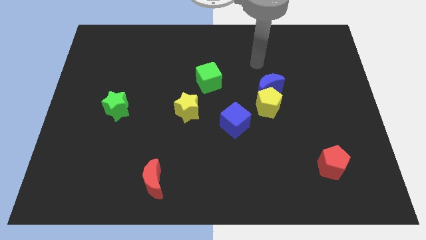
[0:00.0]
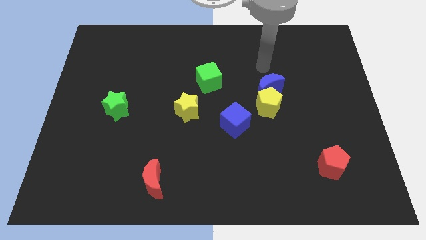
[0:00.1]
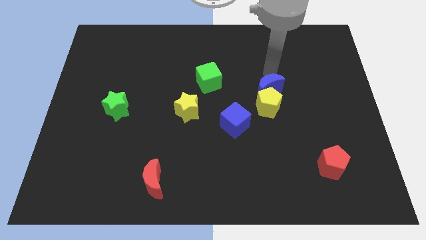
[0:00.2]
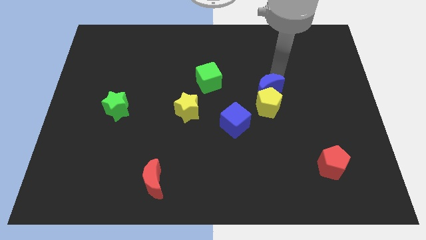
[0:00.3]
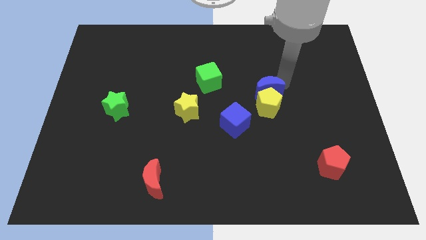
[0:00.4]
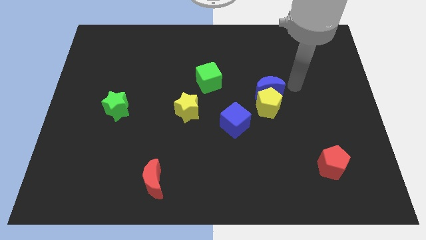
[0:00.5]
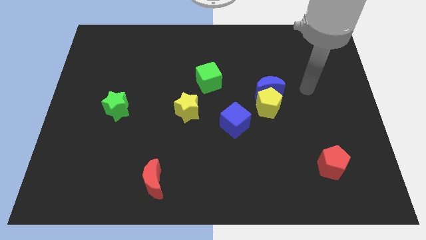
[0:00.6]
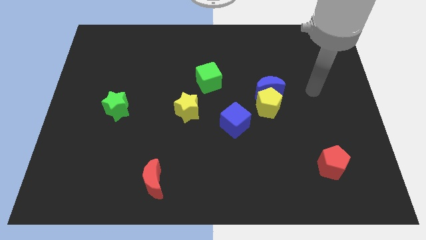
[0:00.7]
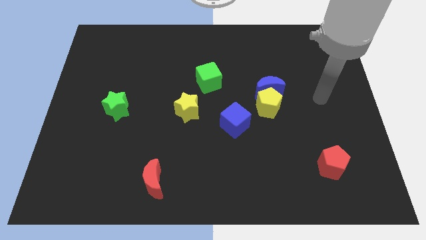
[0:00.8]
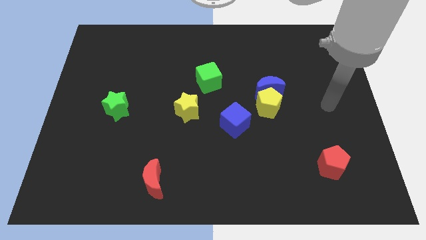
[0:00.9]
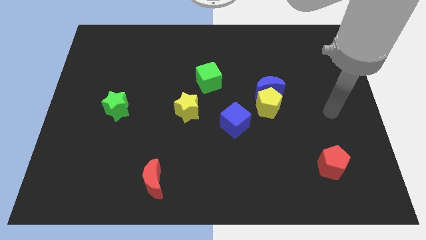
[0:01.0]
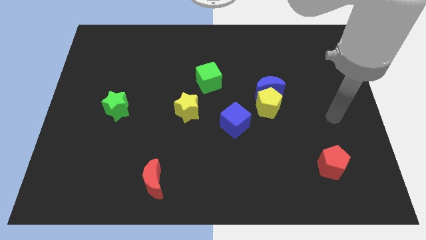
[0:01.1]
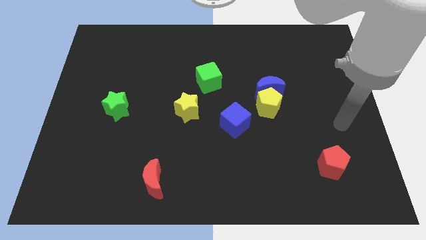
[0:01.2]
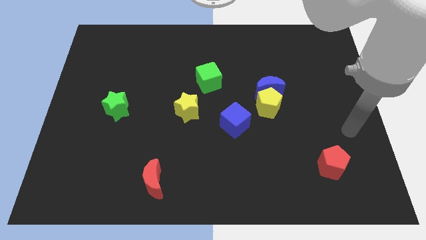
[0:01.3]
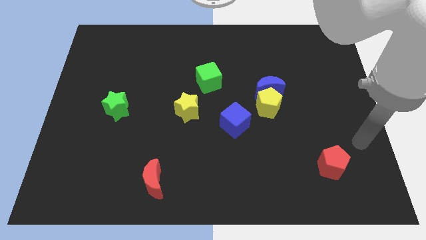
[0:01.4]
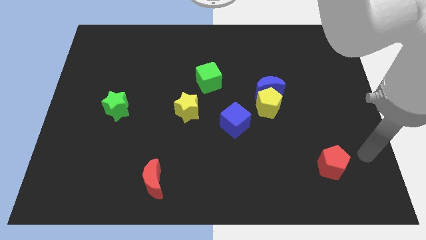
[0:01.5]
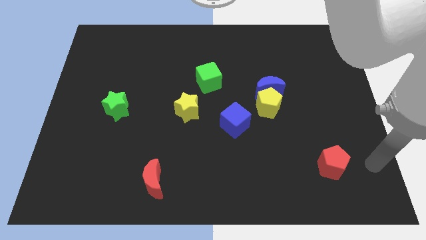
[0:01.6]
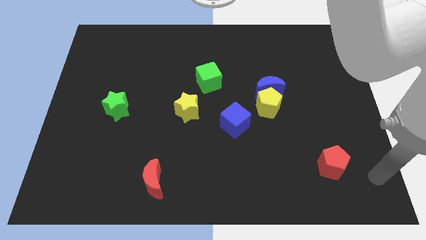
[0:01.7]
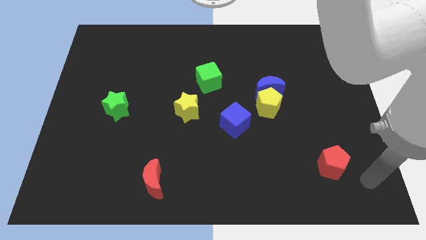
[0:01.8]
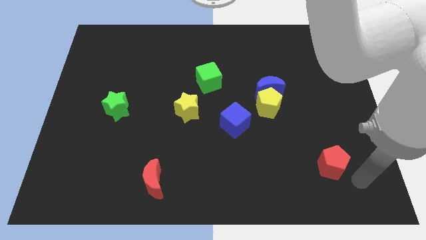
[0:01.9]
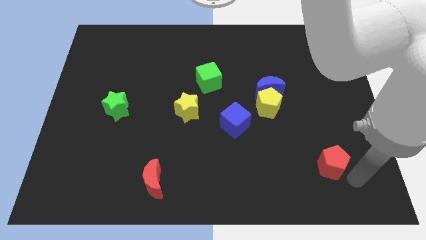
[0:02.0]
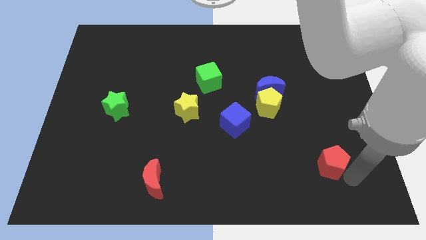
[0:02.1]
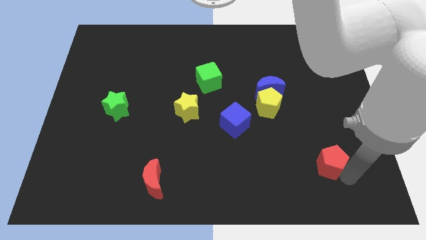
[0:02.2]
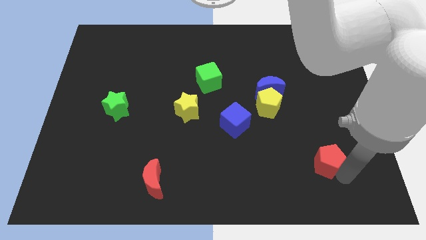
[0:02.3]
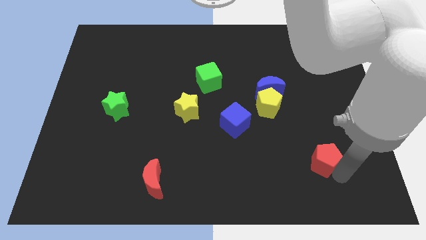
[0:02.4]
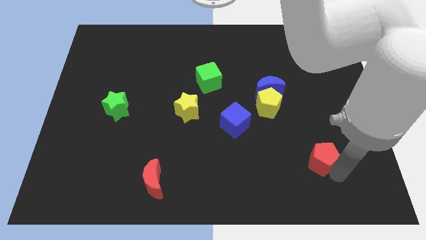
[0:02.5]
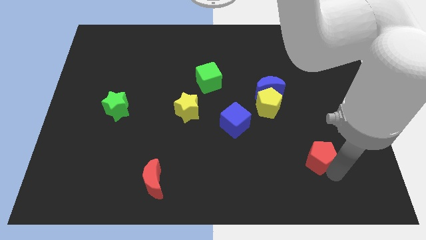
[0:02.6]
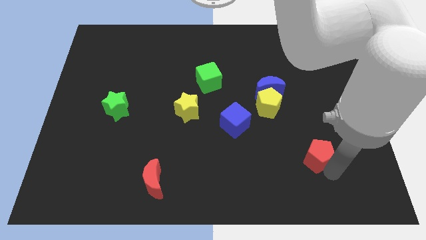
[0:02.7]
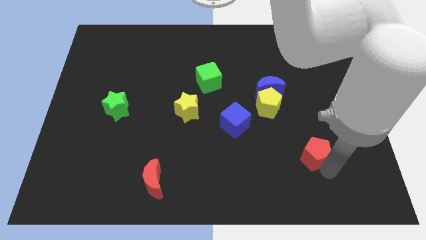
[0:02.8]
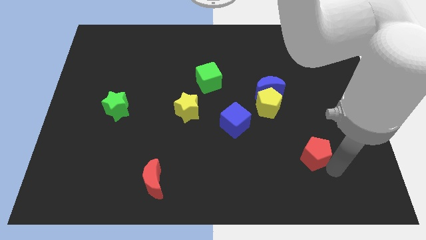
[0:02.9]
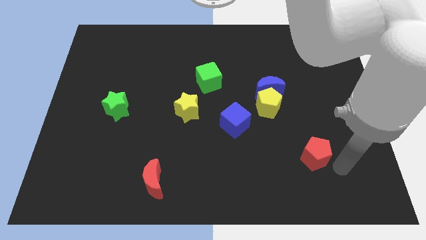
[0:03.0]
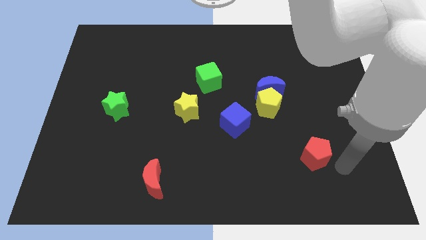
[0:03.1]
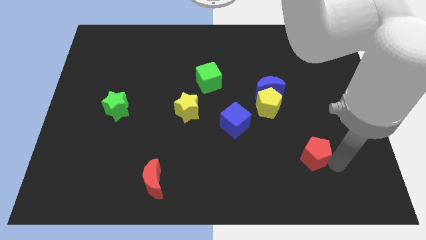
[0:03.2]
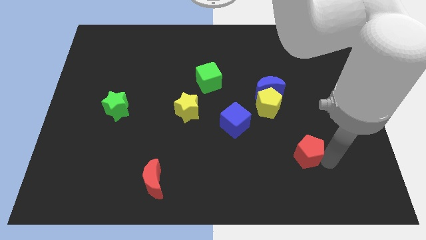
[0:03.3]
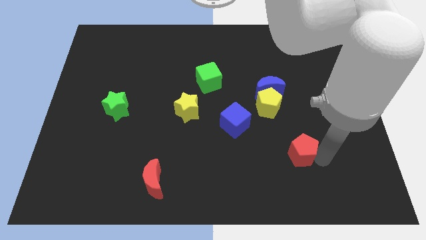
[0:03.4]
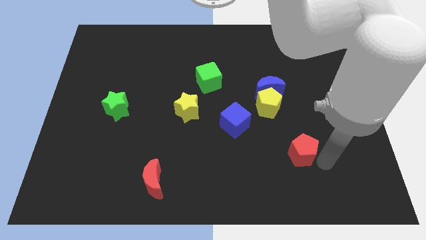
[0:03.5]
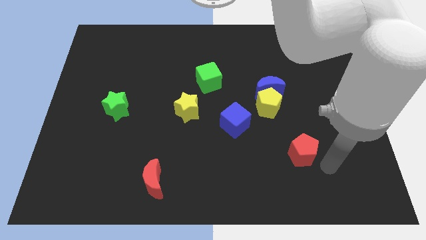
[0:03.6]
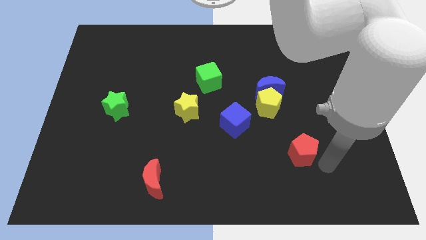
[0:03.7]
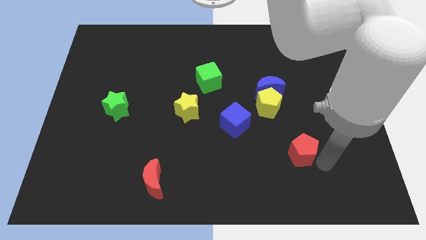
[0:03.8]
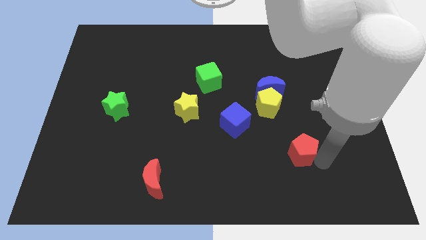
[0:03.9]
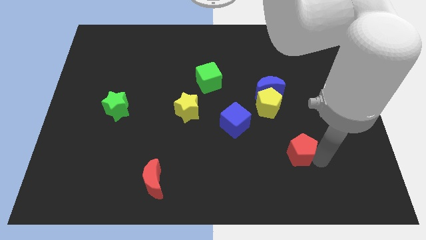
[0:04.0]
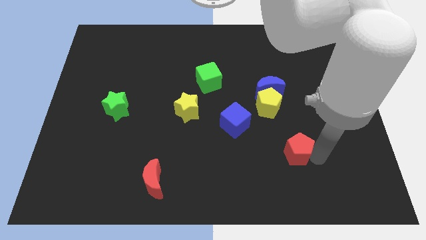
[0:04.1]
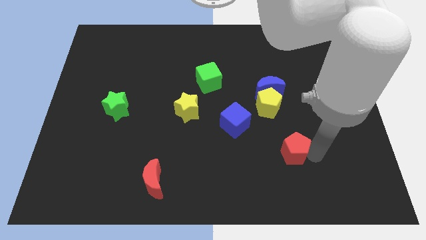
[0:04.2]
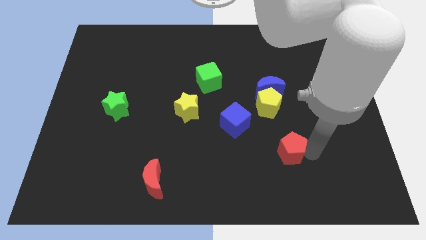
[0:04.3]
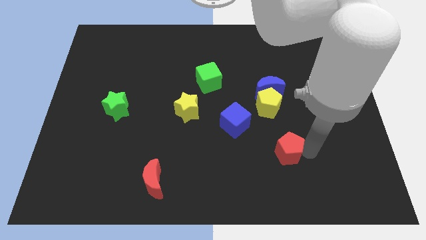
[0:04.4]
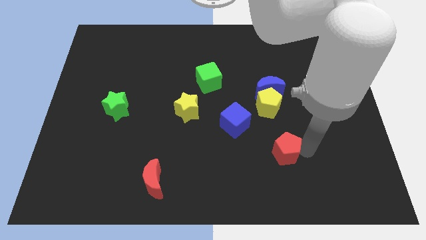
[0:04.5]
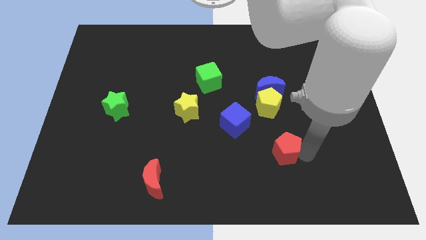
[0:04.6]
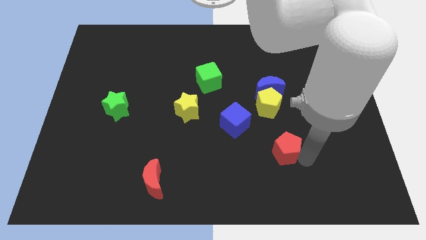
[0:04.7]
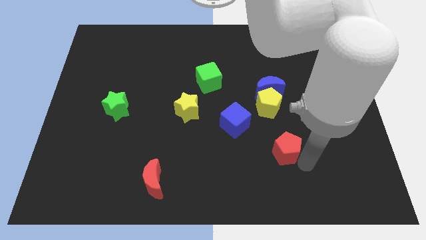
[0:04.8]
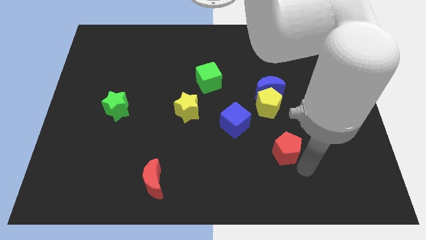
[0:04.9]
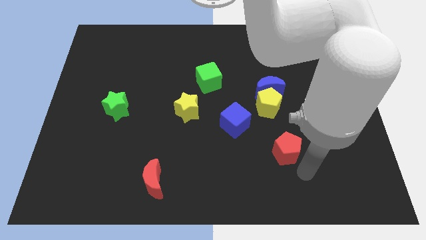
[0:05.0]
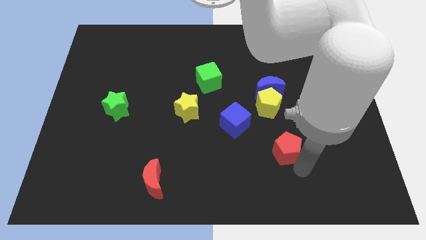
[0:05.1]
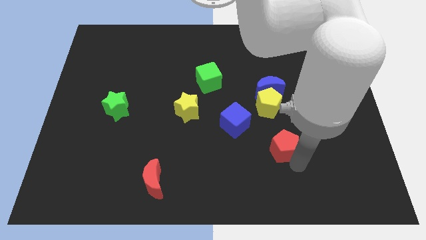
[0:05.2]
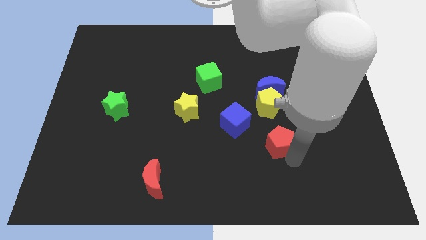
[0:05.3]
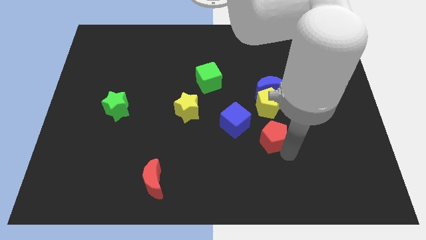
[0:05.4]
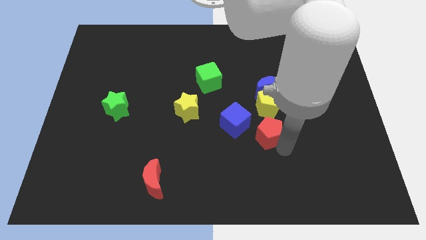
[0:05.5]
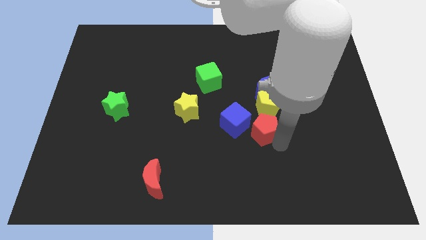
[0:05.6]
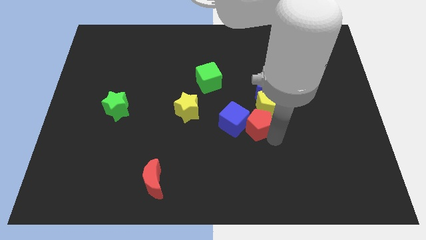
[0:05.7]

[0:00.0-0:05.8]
slide the red pentagon to the blue cube

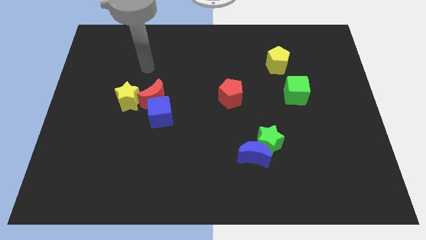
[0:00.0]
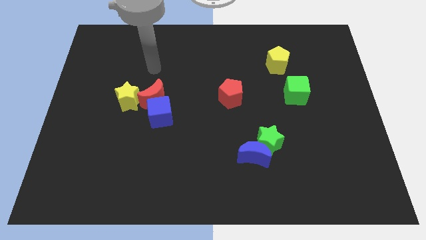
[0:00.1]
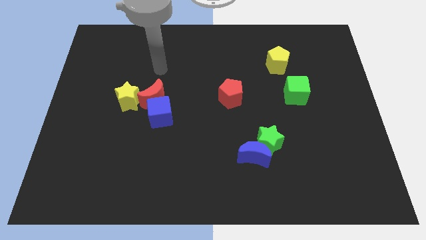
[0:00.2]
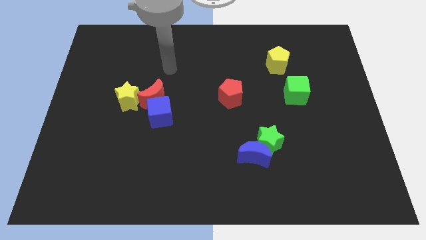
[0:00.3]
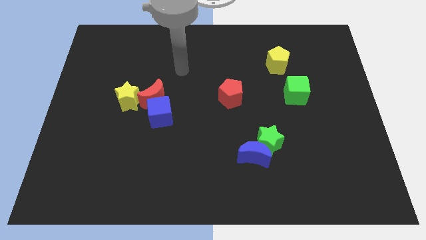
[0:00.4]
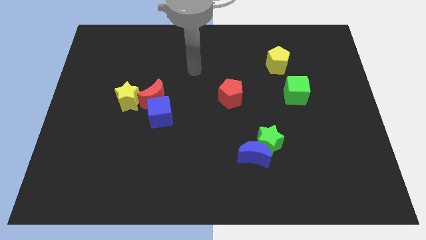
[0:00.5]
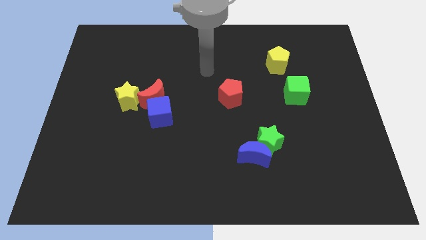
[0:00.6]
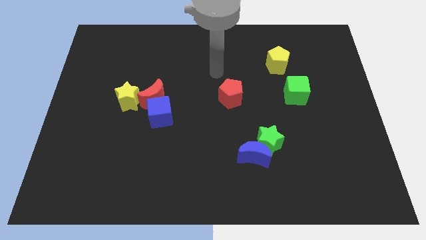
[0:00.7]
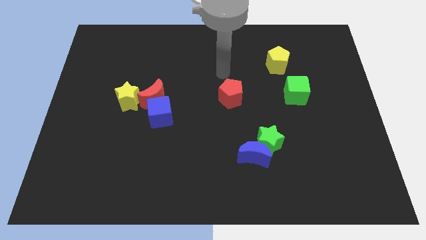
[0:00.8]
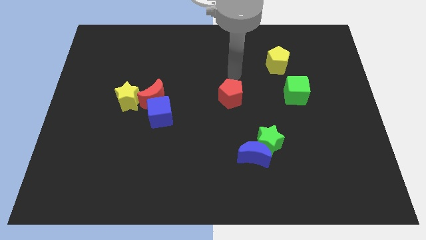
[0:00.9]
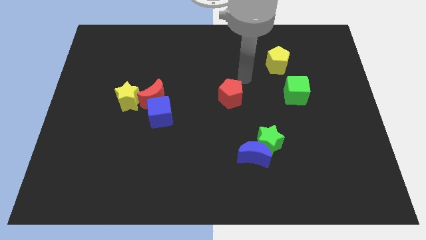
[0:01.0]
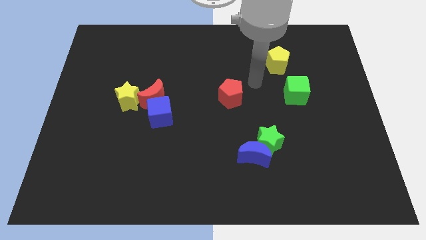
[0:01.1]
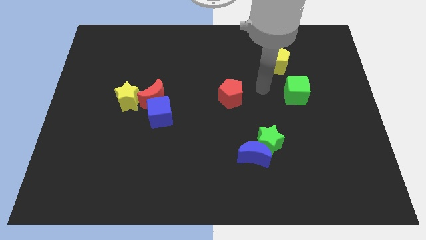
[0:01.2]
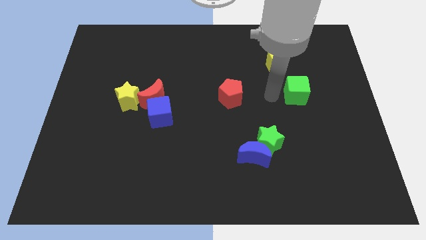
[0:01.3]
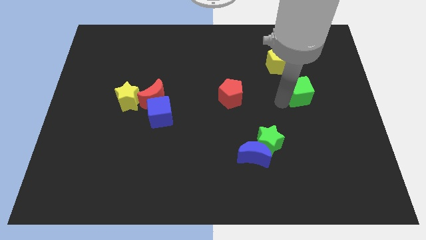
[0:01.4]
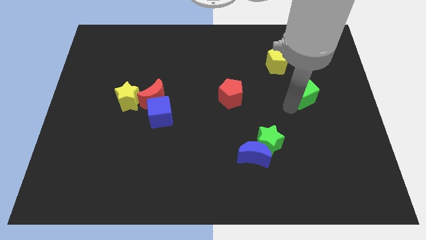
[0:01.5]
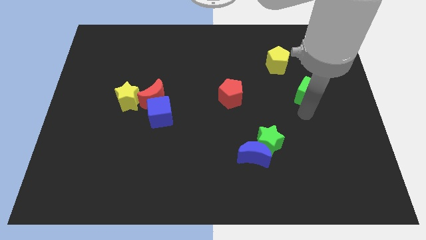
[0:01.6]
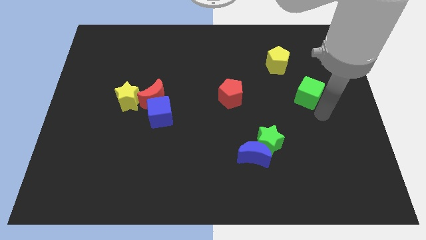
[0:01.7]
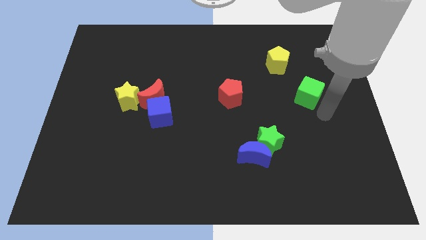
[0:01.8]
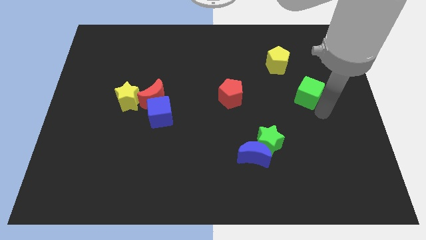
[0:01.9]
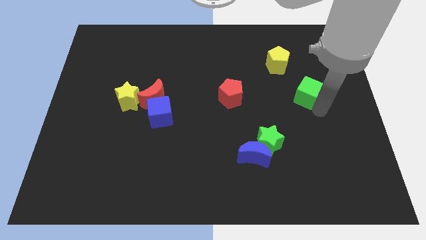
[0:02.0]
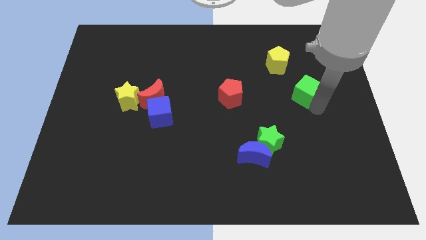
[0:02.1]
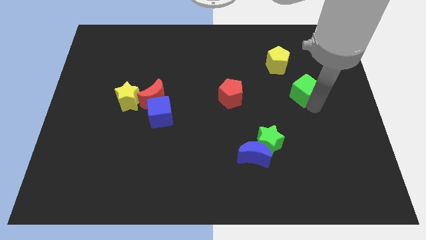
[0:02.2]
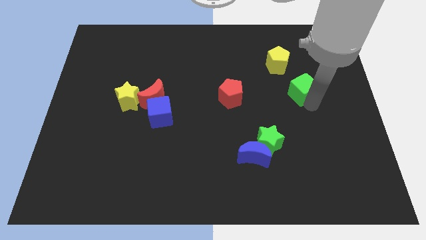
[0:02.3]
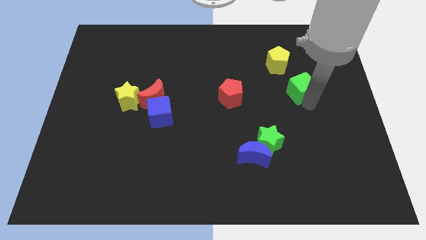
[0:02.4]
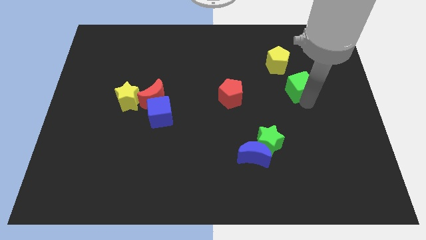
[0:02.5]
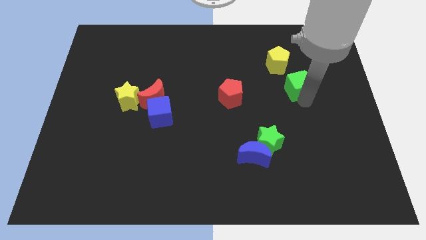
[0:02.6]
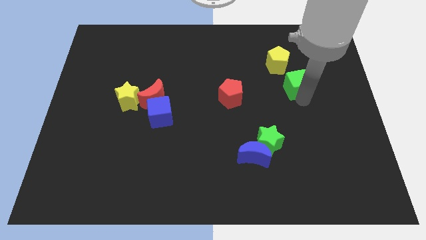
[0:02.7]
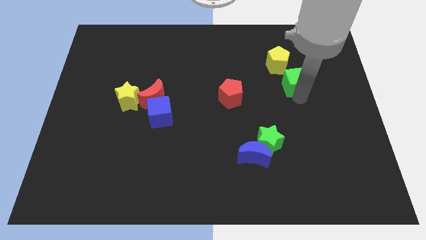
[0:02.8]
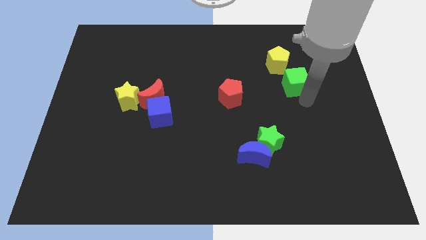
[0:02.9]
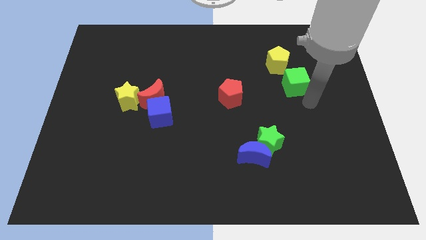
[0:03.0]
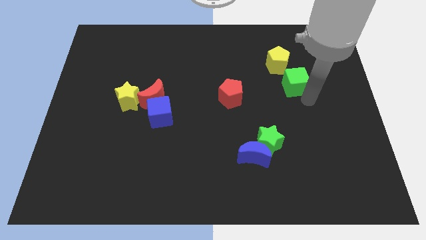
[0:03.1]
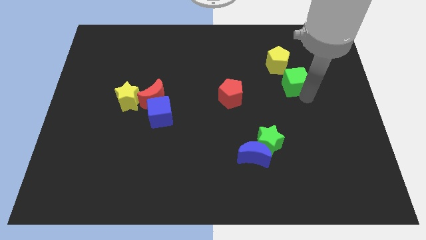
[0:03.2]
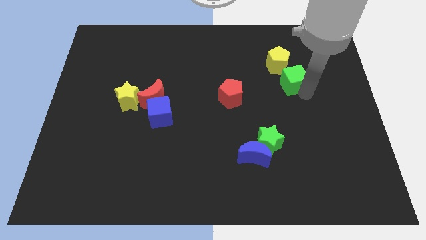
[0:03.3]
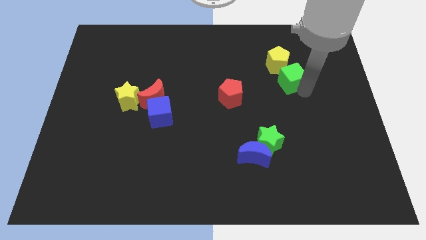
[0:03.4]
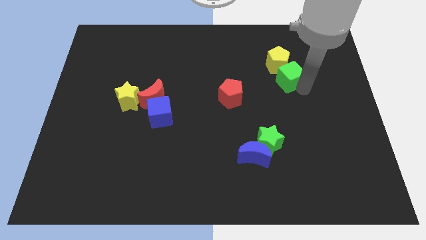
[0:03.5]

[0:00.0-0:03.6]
put the green cube to the yellow pentagon
